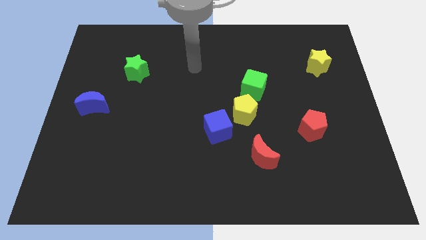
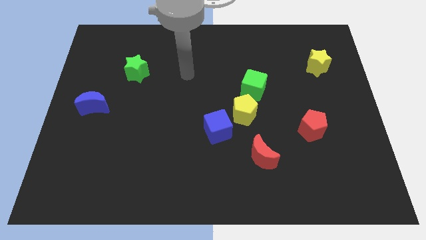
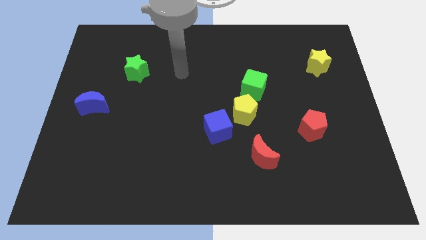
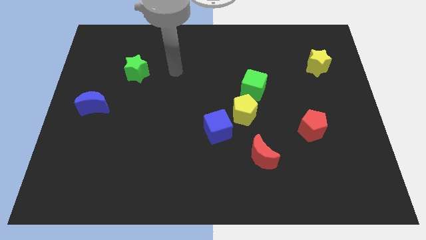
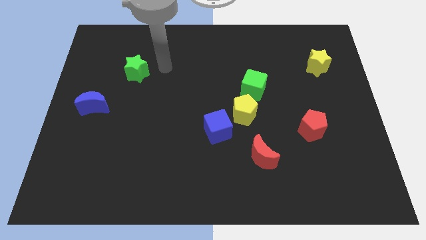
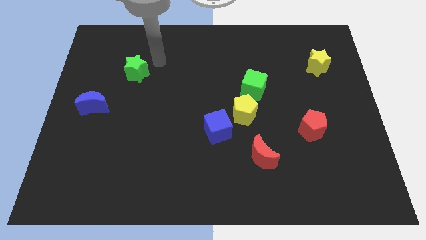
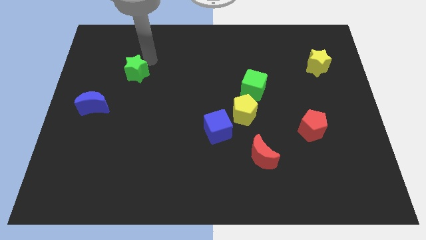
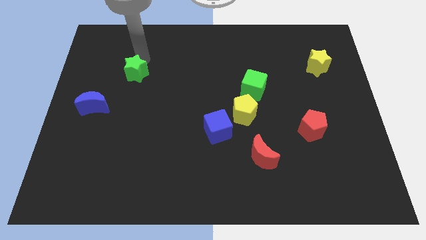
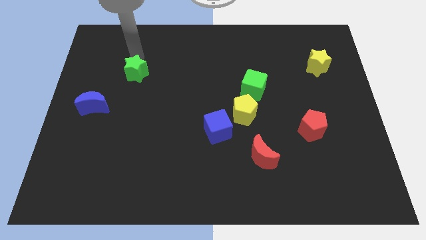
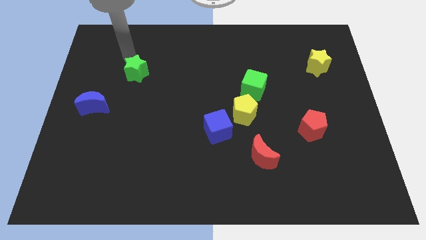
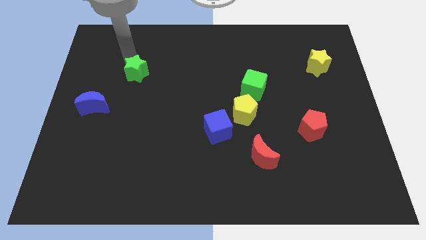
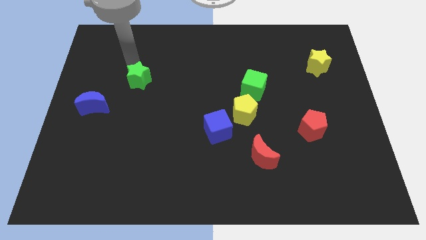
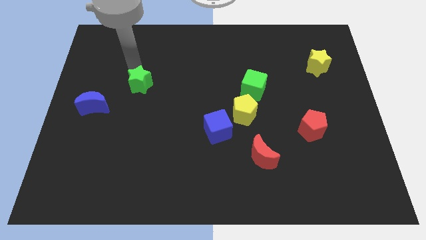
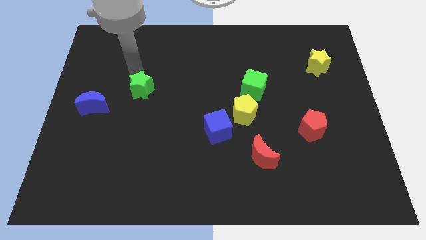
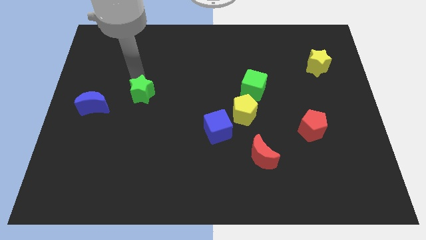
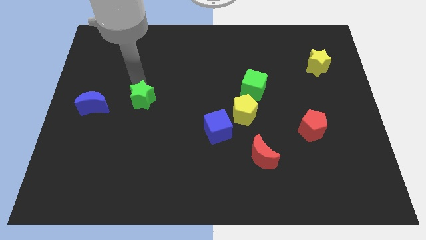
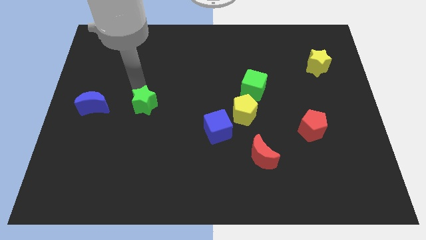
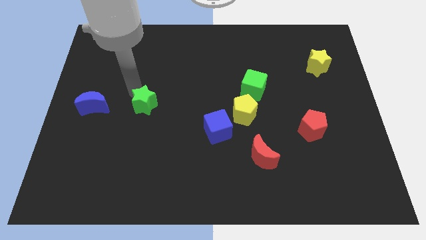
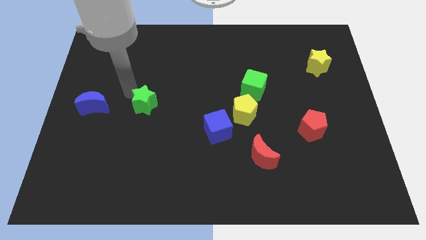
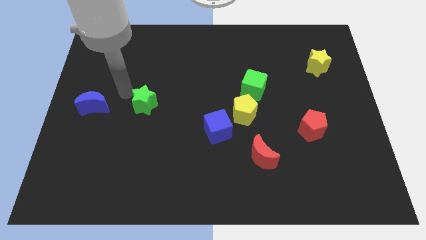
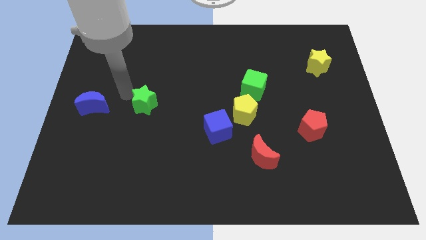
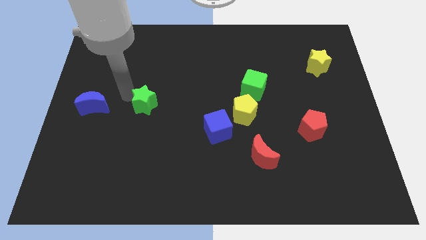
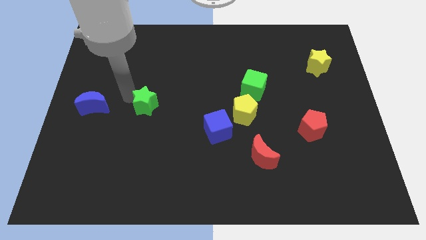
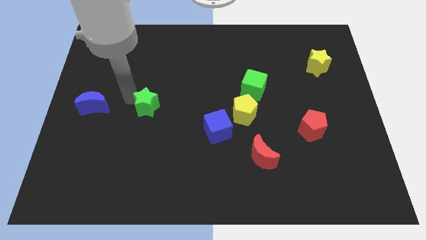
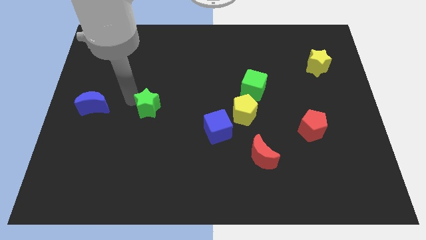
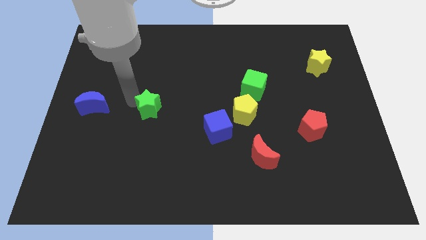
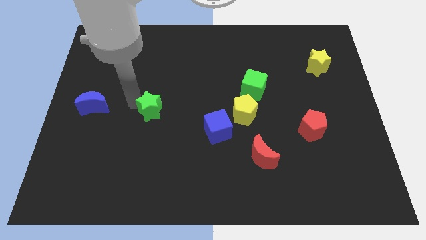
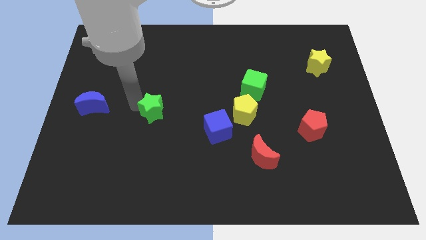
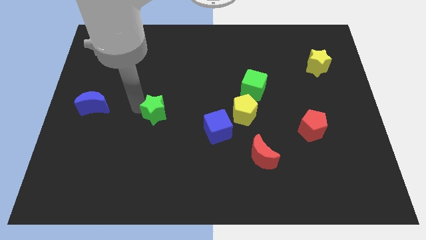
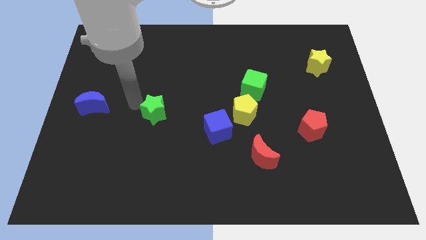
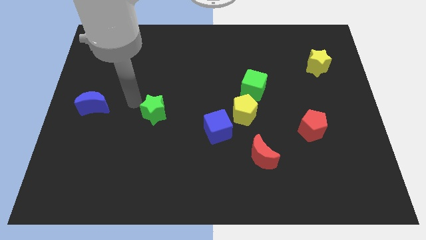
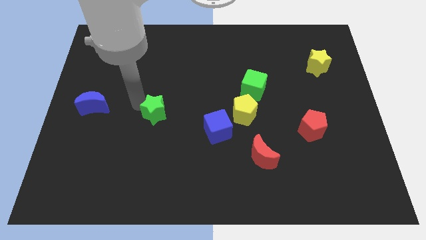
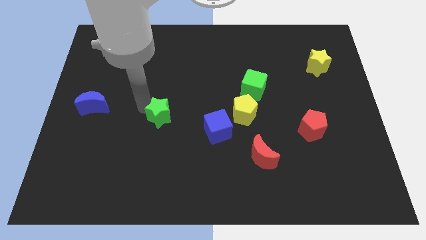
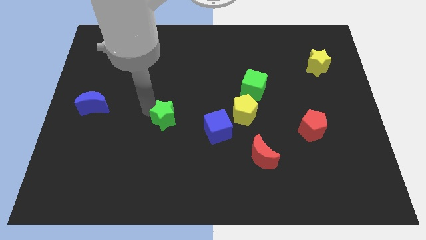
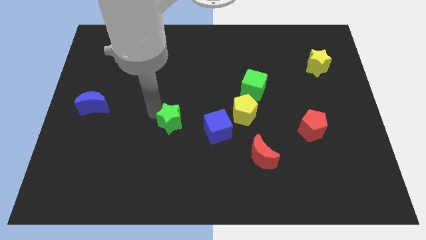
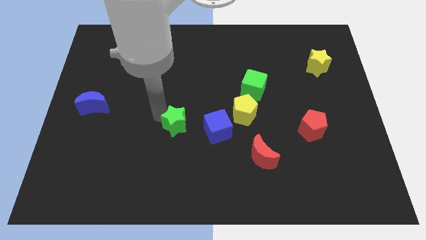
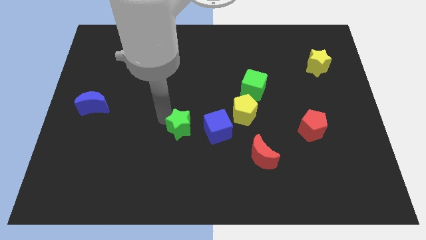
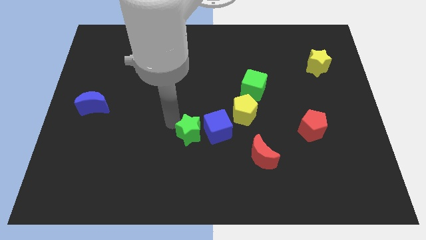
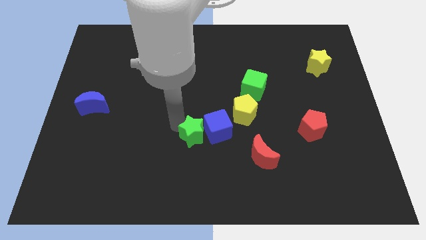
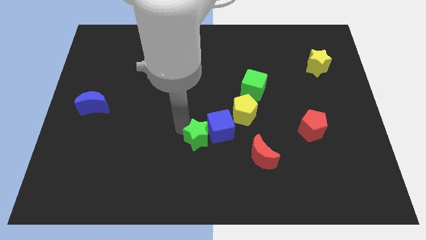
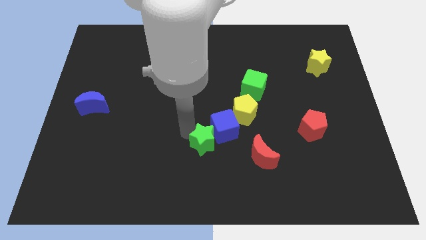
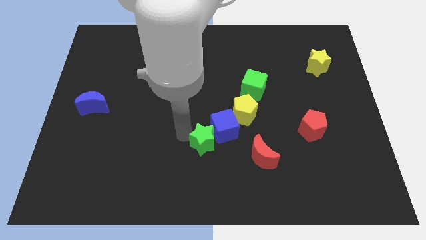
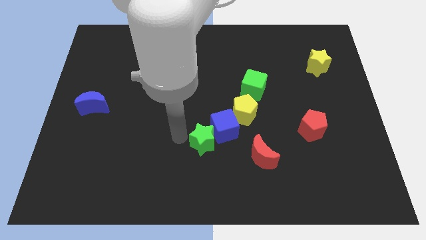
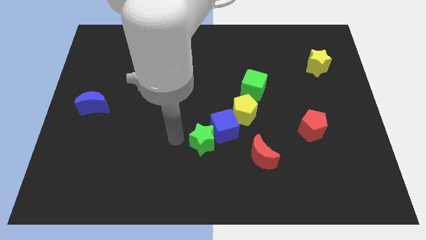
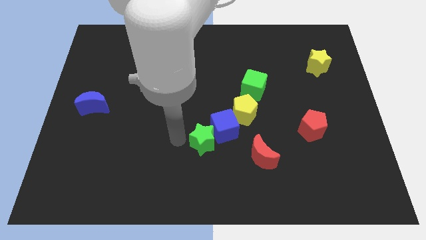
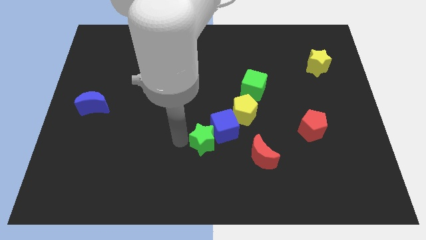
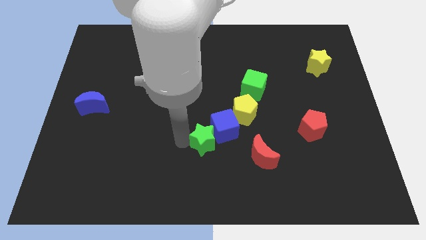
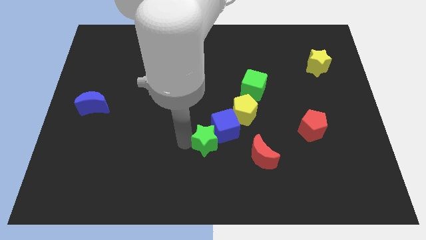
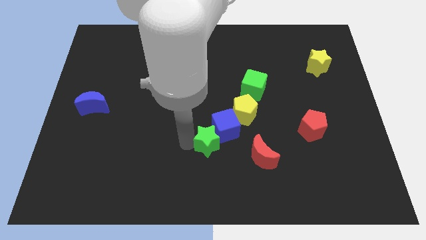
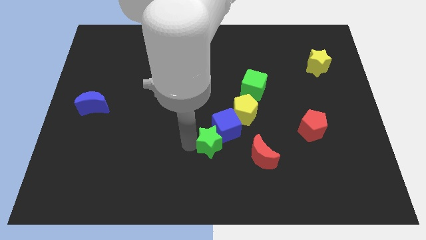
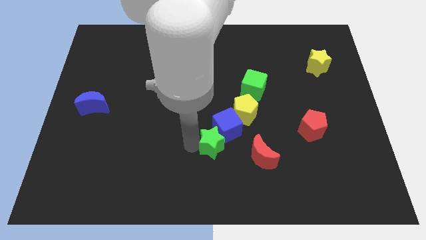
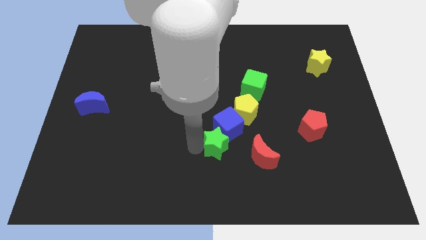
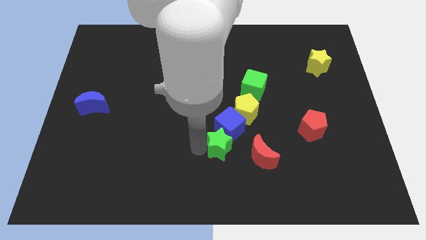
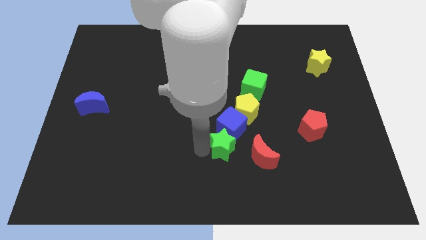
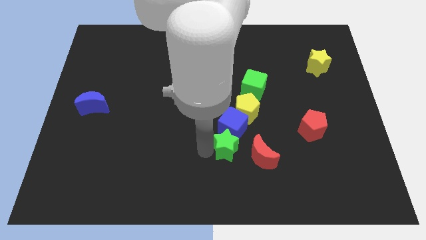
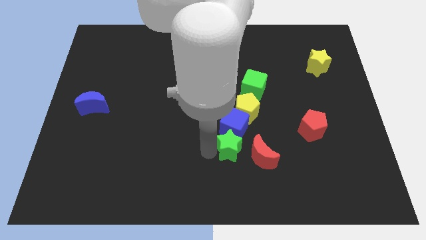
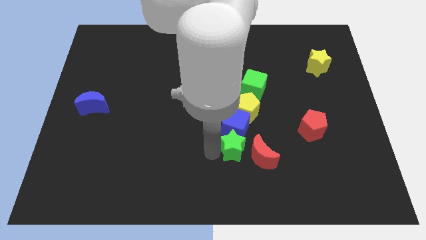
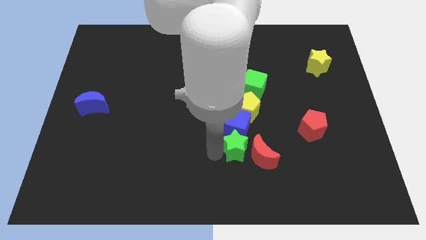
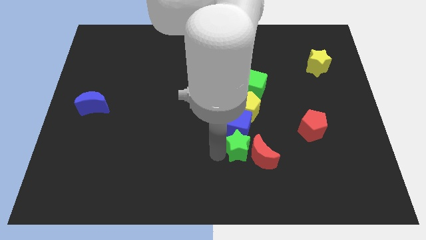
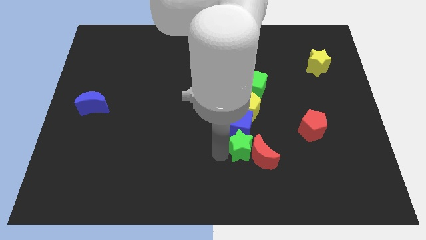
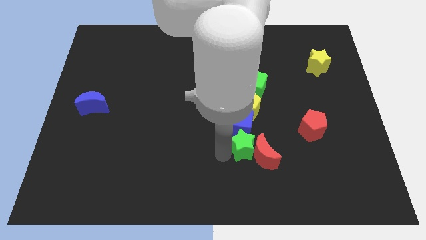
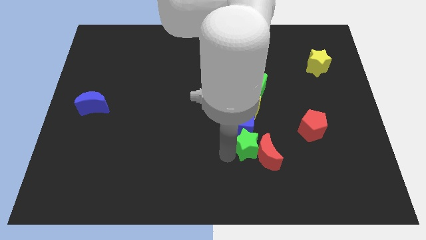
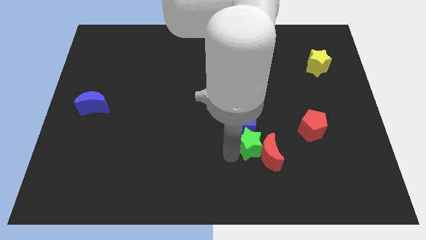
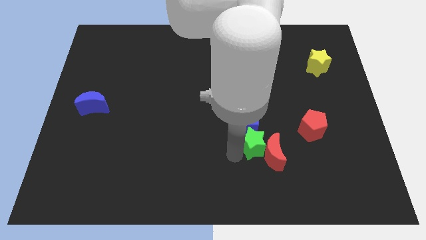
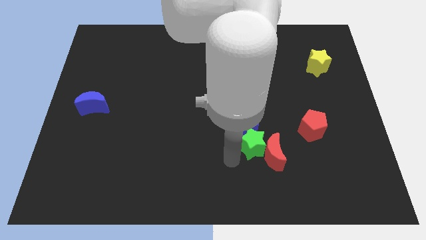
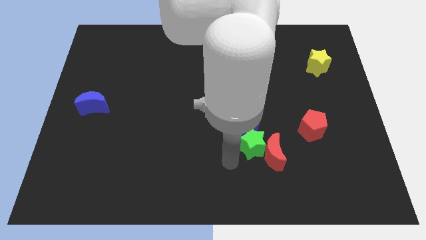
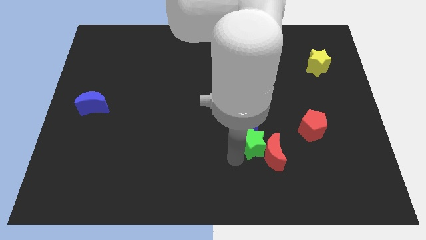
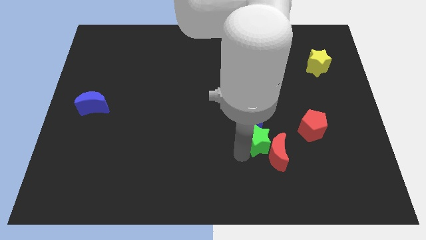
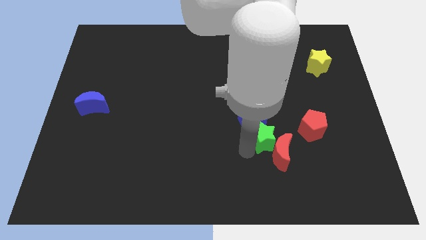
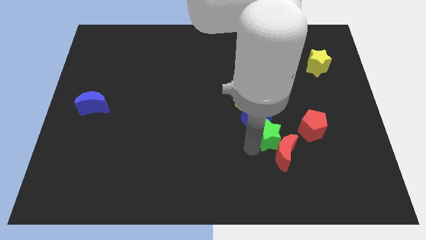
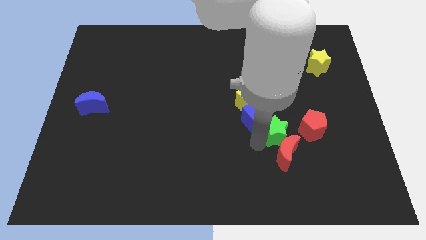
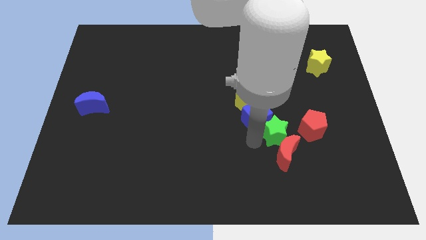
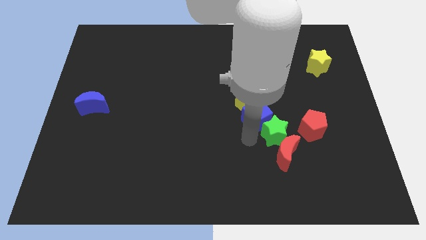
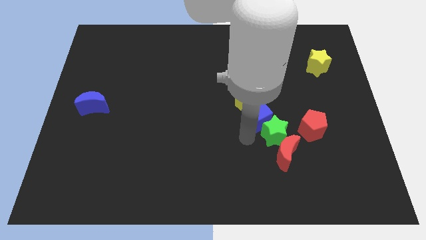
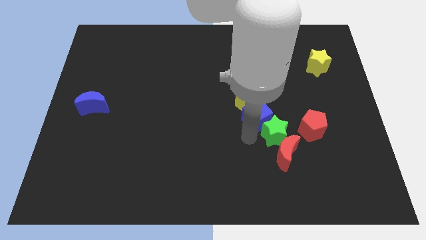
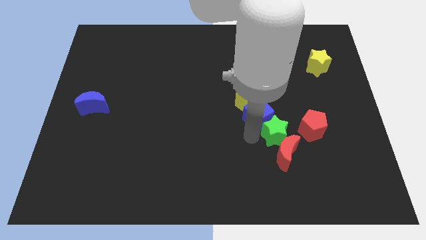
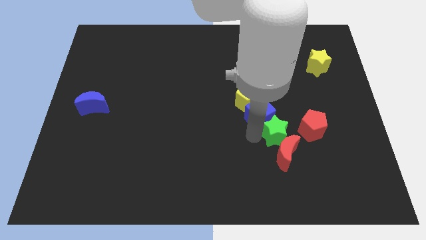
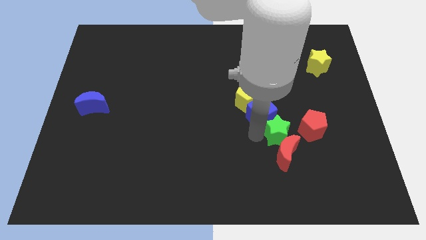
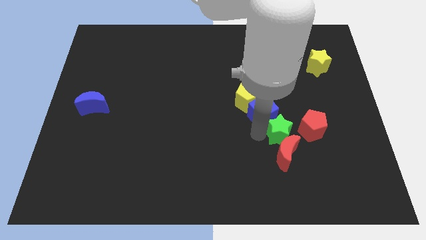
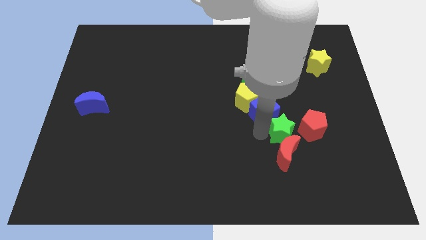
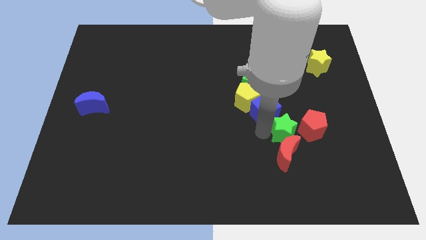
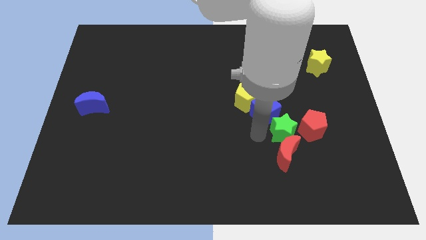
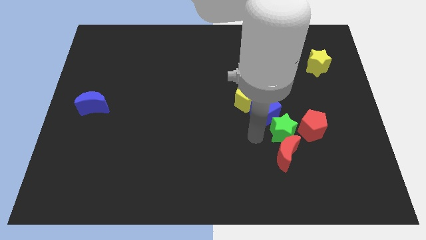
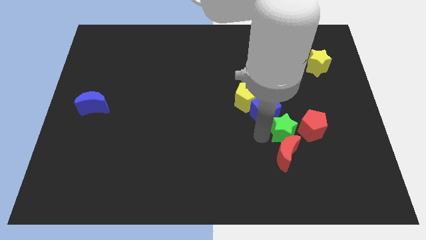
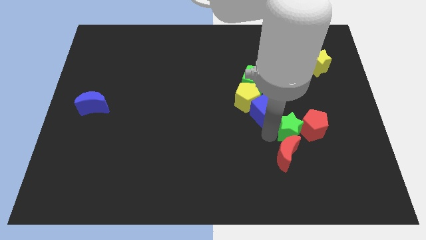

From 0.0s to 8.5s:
push the green star next to the red pentagon
